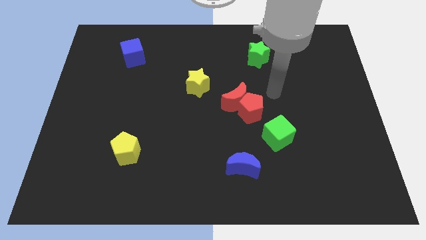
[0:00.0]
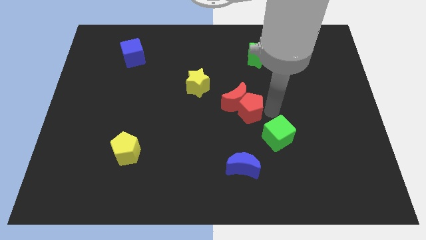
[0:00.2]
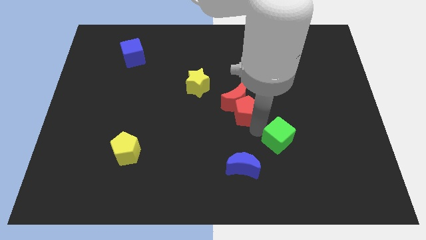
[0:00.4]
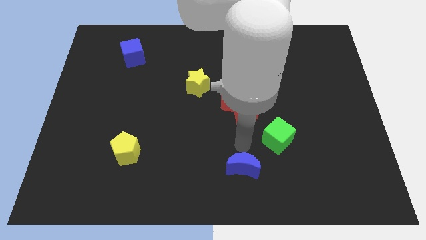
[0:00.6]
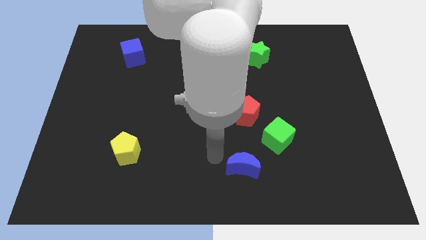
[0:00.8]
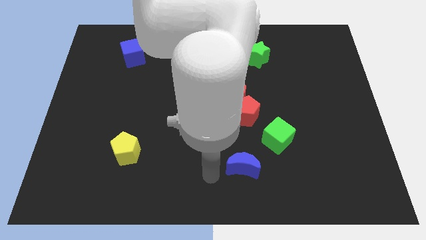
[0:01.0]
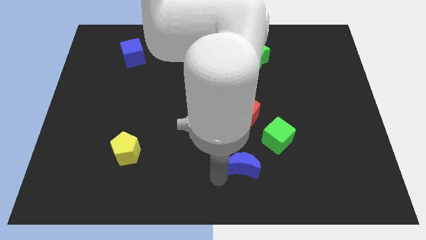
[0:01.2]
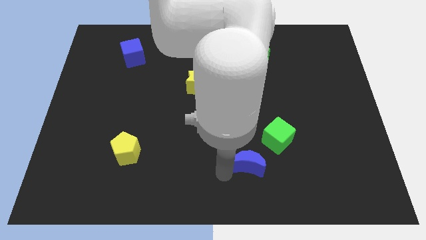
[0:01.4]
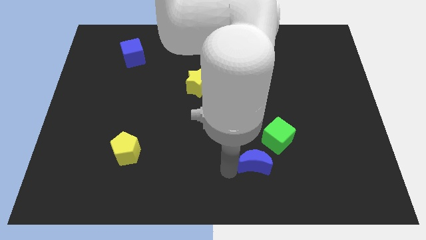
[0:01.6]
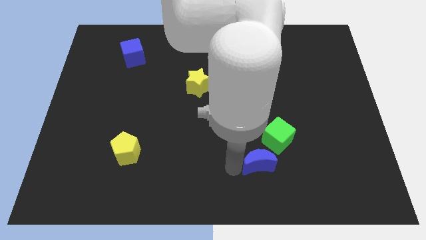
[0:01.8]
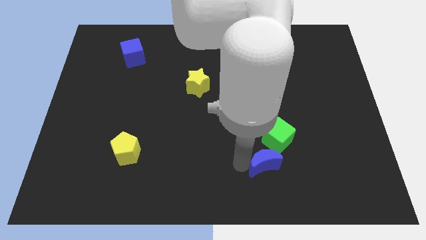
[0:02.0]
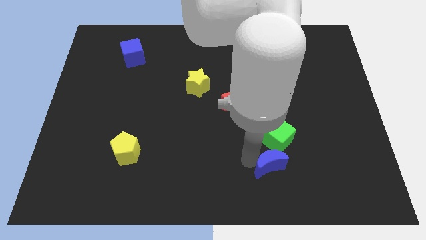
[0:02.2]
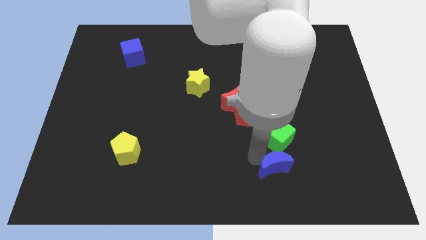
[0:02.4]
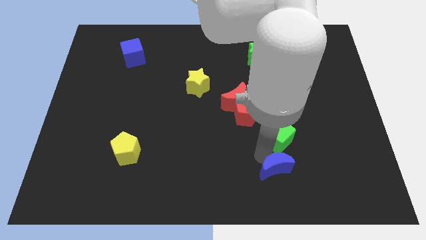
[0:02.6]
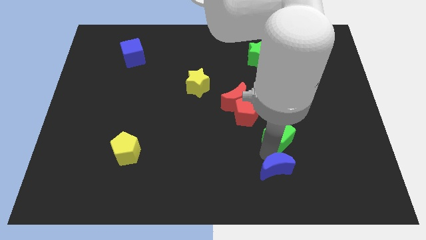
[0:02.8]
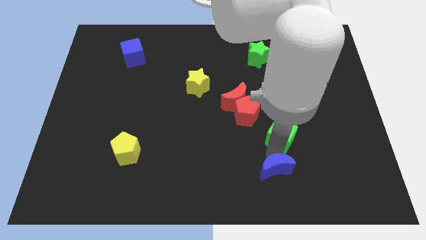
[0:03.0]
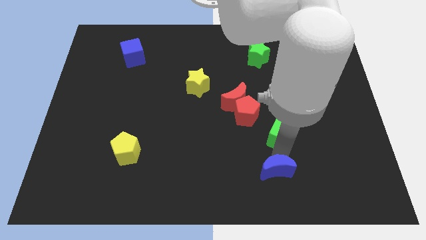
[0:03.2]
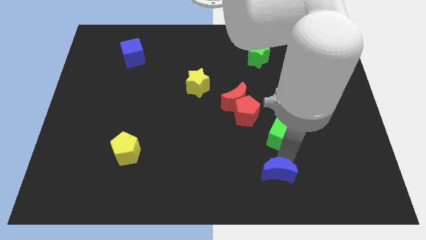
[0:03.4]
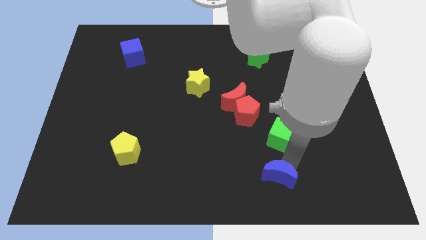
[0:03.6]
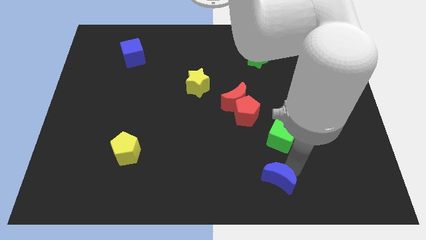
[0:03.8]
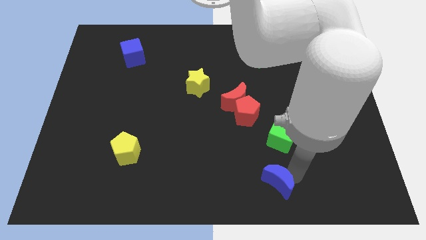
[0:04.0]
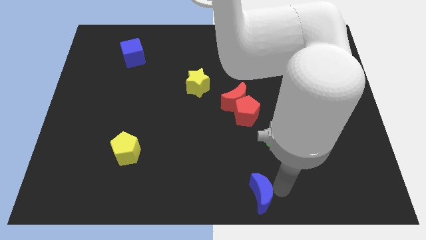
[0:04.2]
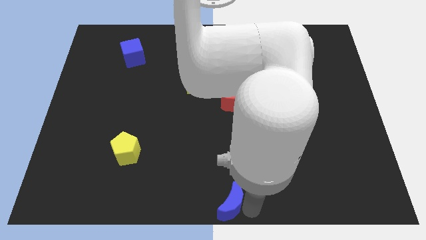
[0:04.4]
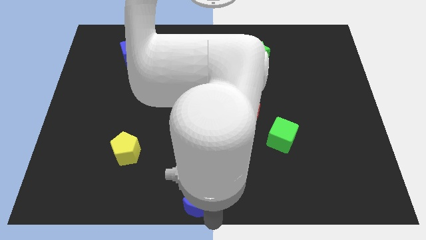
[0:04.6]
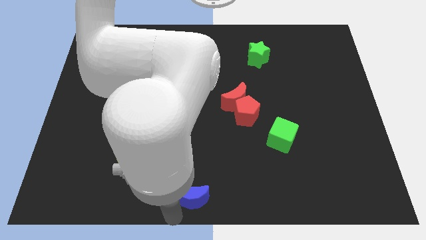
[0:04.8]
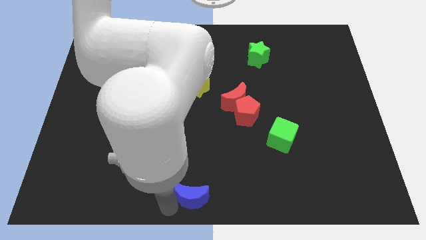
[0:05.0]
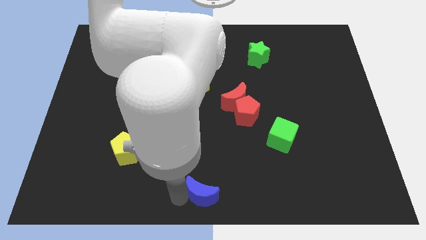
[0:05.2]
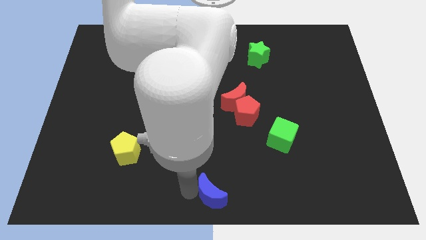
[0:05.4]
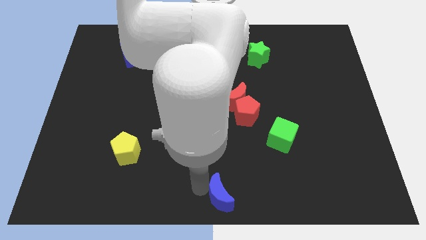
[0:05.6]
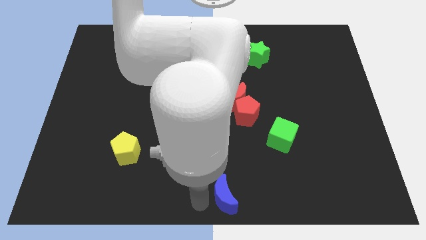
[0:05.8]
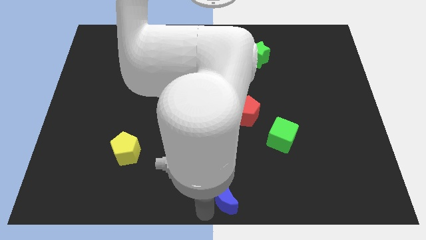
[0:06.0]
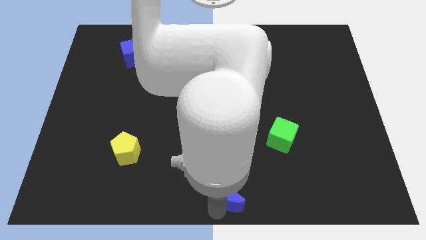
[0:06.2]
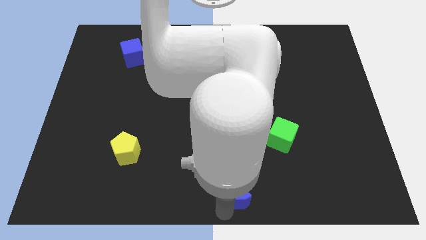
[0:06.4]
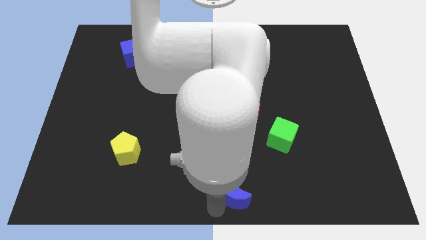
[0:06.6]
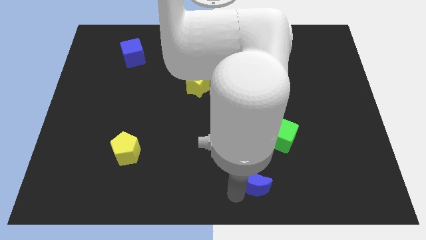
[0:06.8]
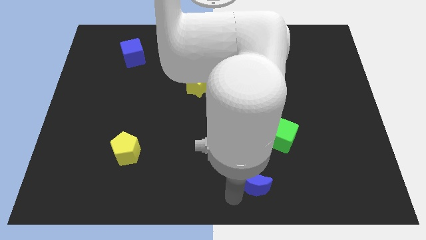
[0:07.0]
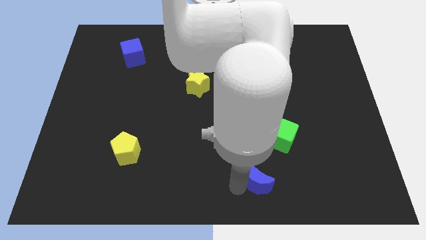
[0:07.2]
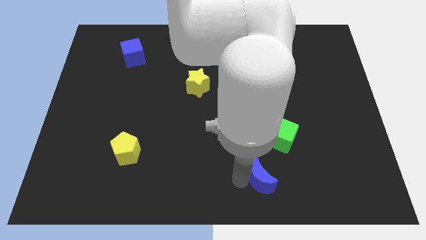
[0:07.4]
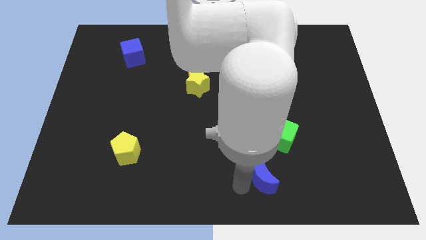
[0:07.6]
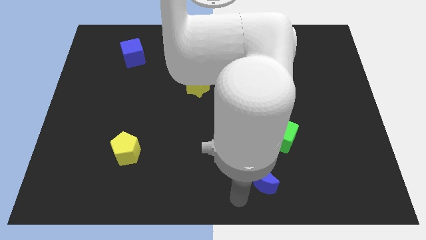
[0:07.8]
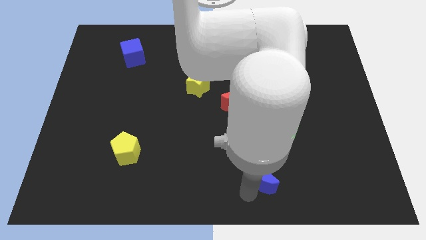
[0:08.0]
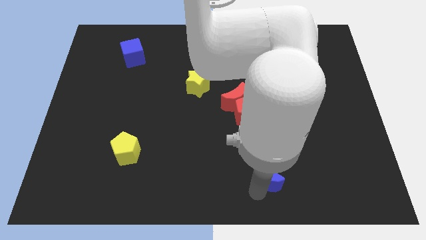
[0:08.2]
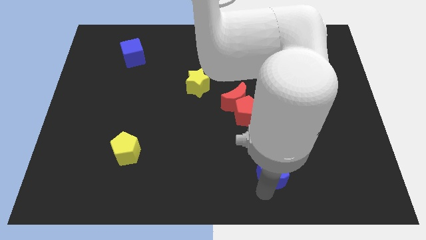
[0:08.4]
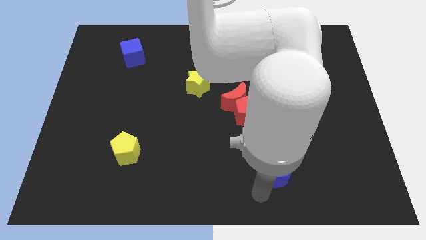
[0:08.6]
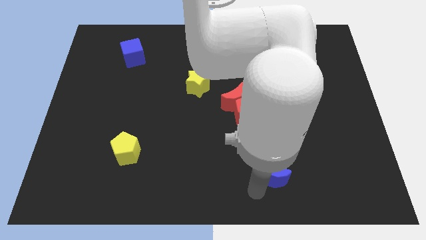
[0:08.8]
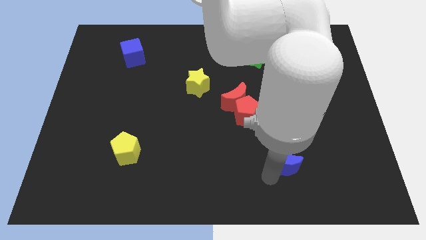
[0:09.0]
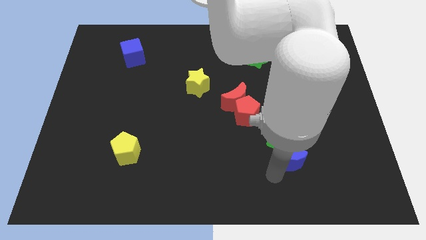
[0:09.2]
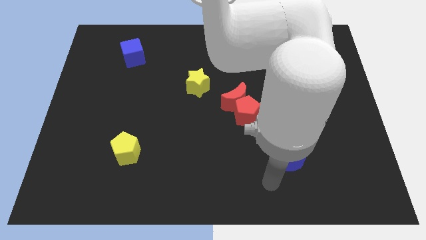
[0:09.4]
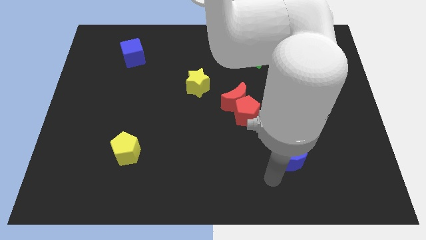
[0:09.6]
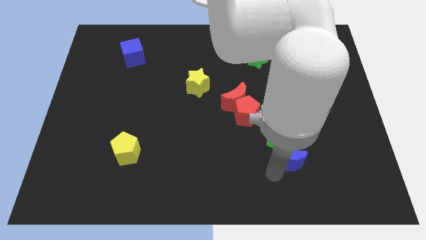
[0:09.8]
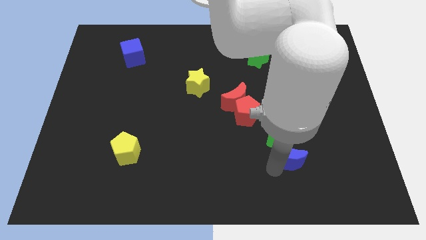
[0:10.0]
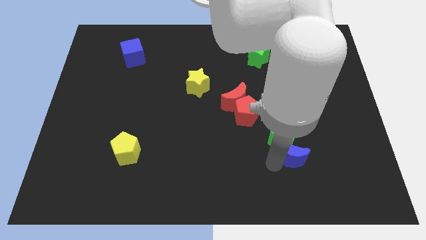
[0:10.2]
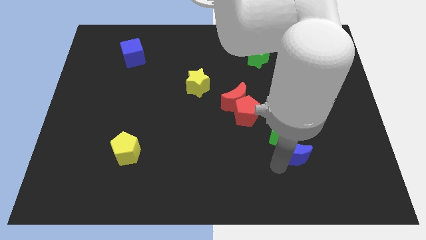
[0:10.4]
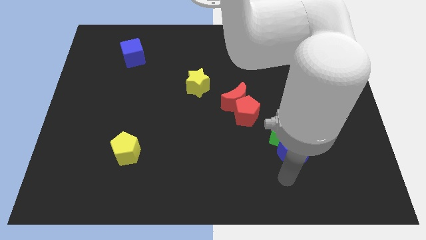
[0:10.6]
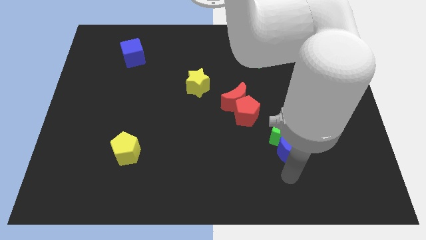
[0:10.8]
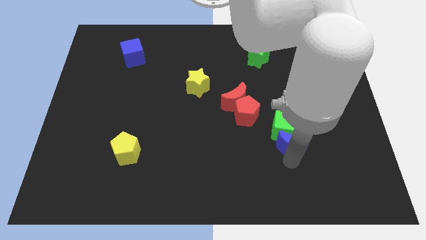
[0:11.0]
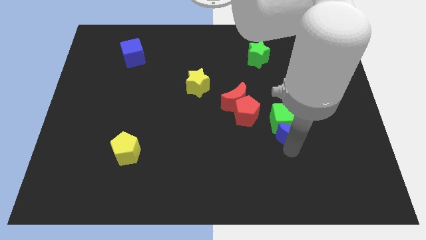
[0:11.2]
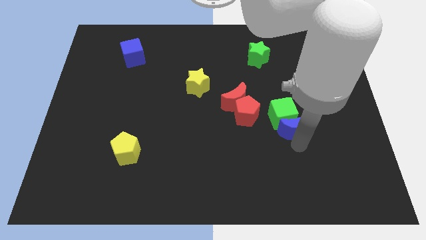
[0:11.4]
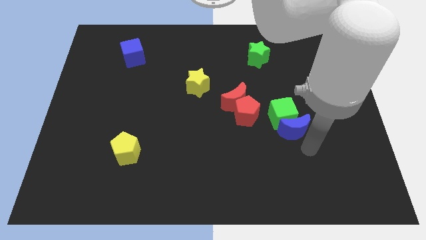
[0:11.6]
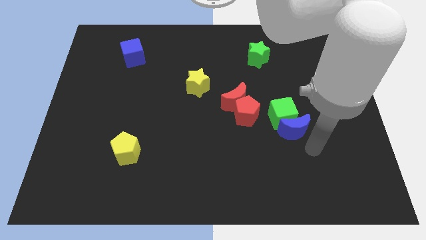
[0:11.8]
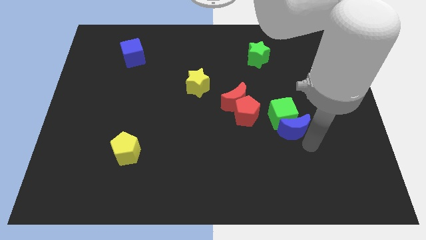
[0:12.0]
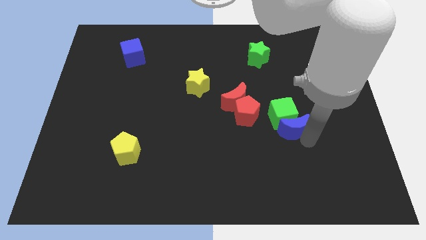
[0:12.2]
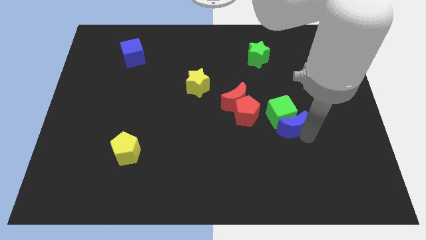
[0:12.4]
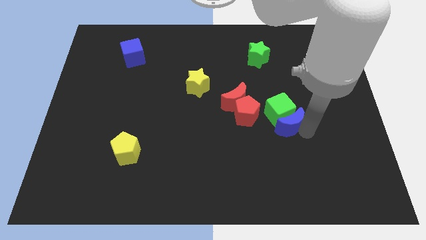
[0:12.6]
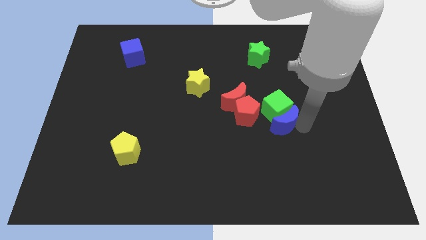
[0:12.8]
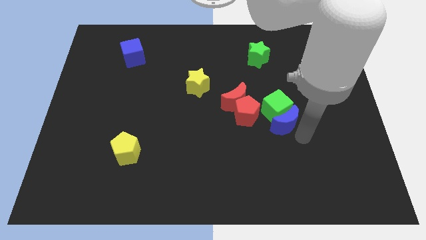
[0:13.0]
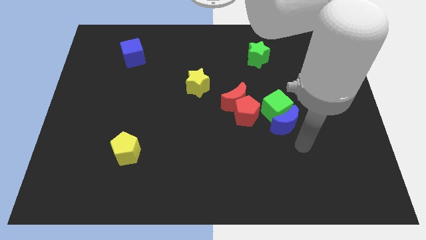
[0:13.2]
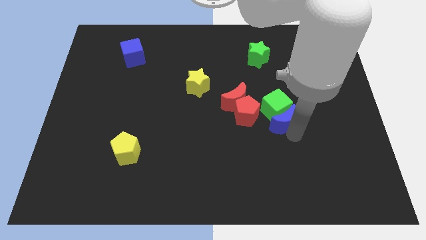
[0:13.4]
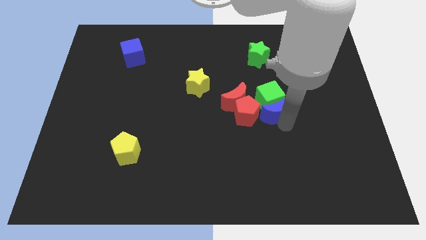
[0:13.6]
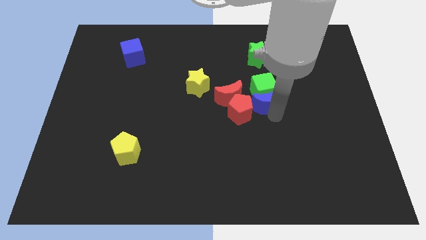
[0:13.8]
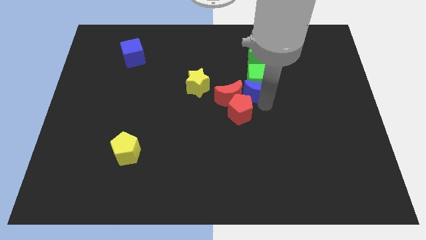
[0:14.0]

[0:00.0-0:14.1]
move the blue moon diagonally up and to the right of the red moon
